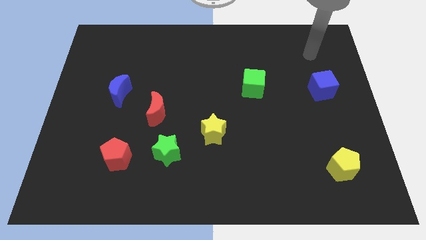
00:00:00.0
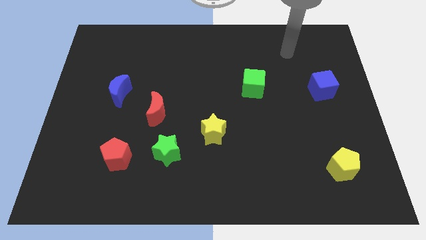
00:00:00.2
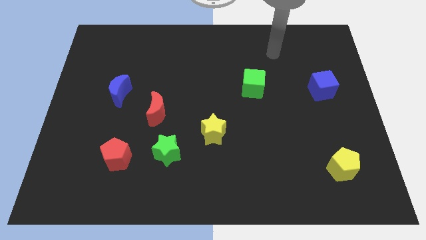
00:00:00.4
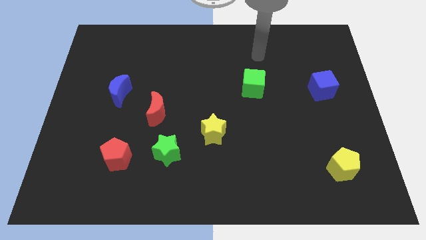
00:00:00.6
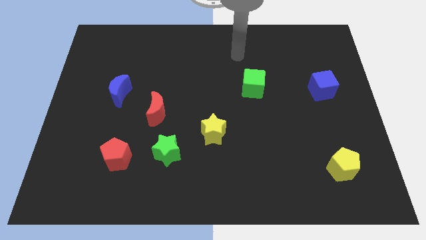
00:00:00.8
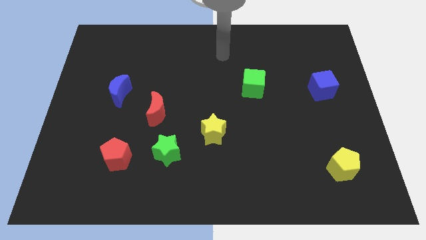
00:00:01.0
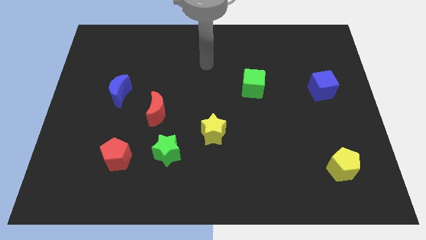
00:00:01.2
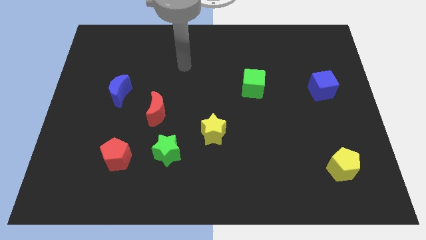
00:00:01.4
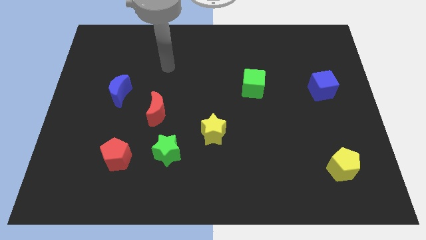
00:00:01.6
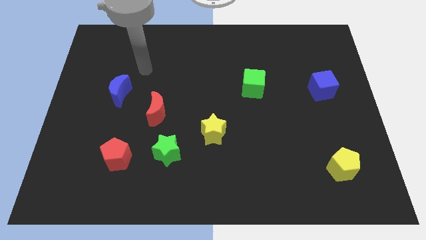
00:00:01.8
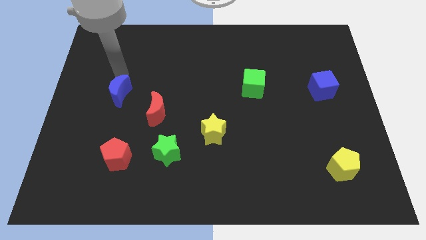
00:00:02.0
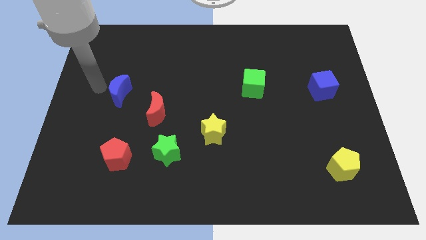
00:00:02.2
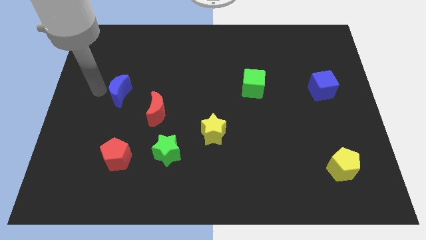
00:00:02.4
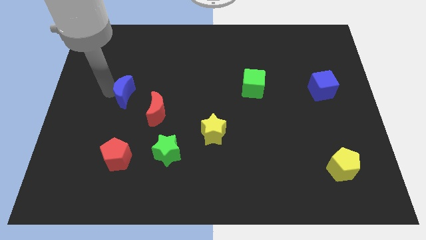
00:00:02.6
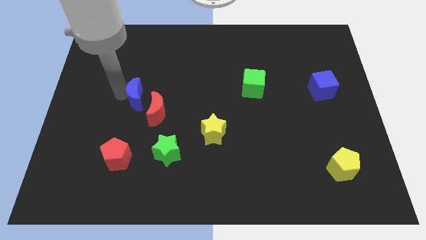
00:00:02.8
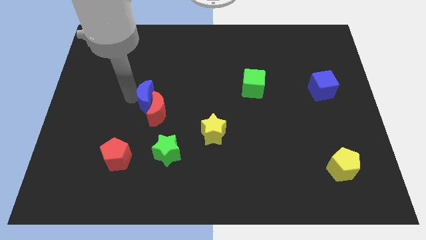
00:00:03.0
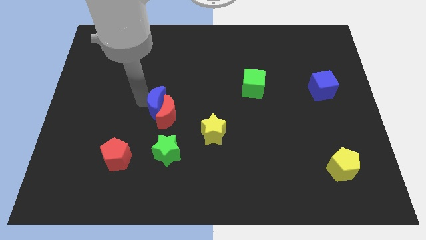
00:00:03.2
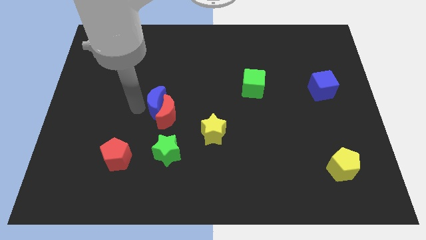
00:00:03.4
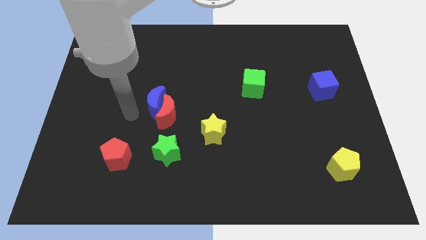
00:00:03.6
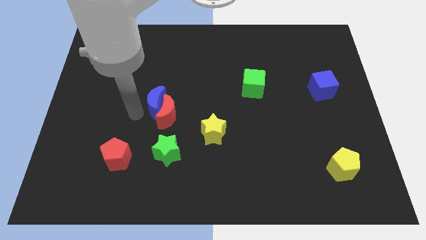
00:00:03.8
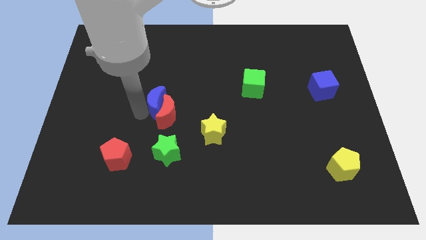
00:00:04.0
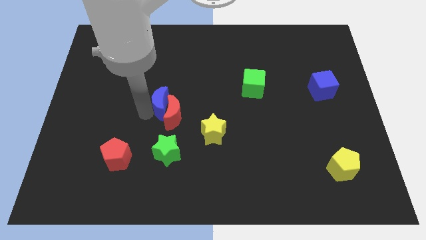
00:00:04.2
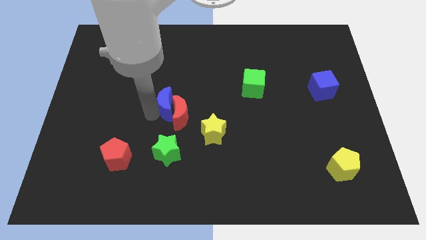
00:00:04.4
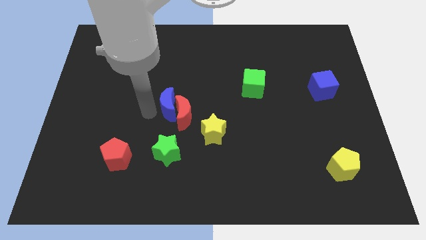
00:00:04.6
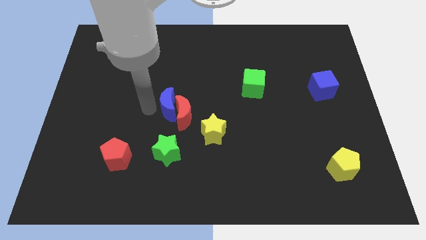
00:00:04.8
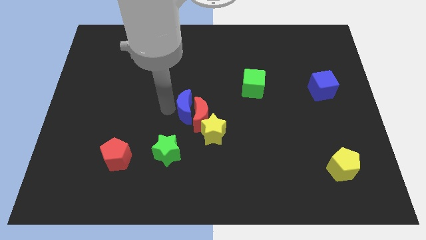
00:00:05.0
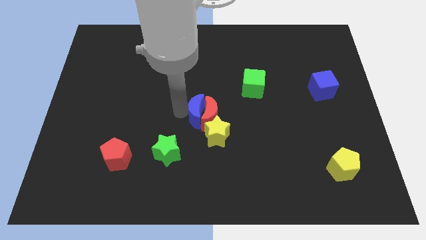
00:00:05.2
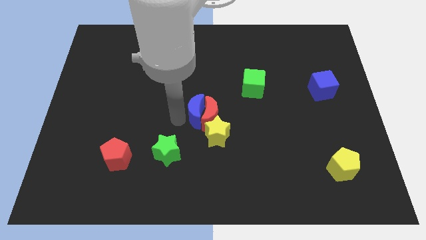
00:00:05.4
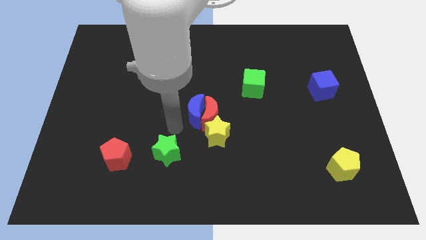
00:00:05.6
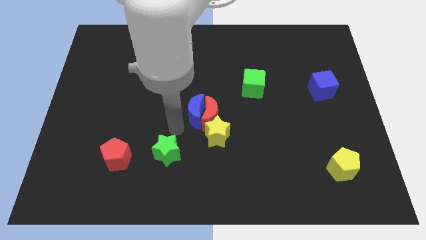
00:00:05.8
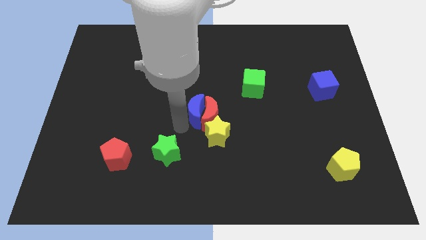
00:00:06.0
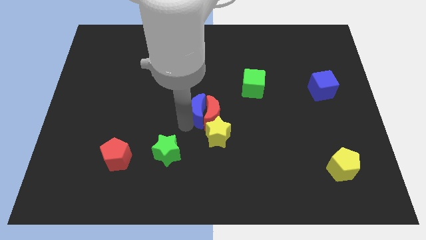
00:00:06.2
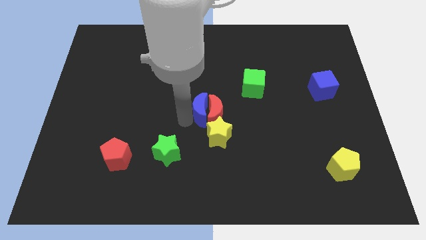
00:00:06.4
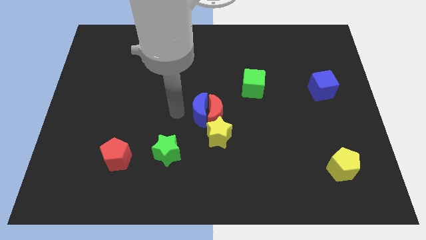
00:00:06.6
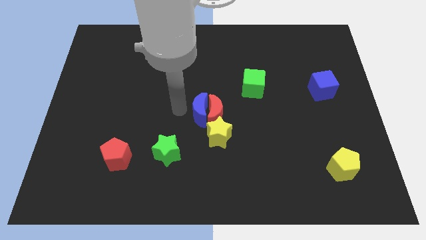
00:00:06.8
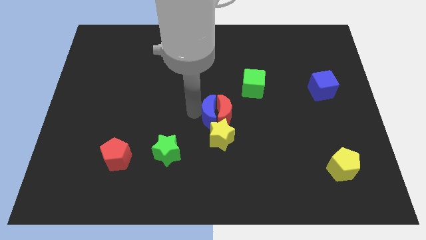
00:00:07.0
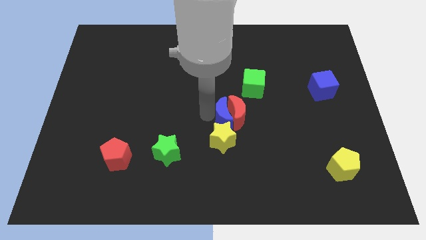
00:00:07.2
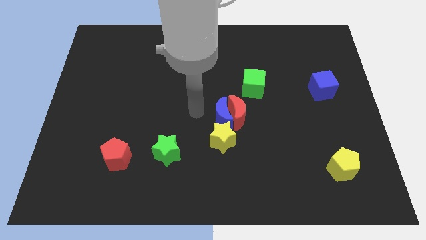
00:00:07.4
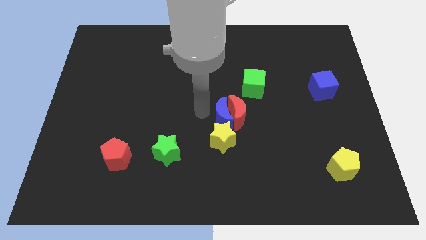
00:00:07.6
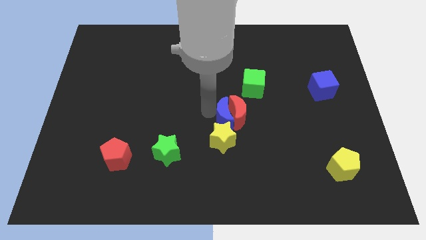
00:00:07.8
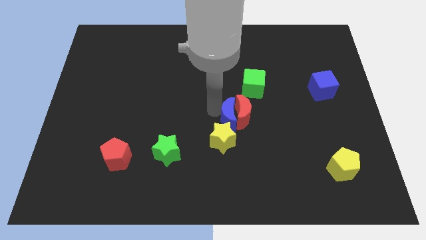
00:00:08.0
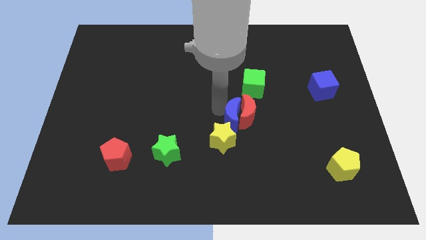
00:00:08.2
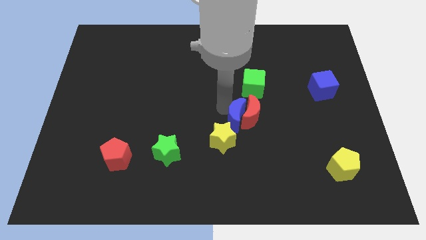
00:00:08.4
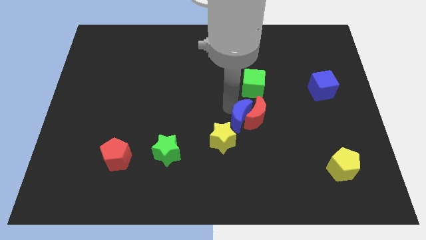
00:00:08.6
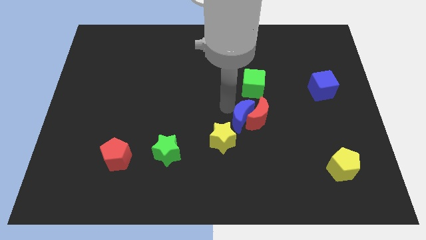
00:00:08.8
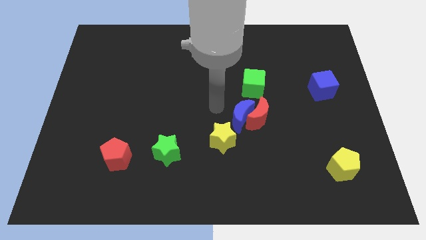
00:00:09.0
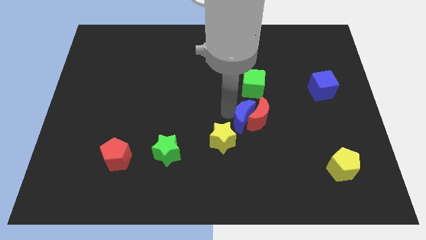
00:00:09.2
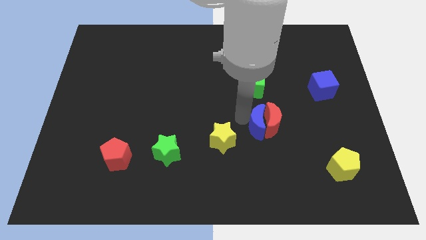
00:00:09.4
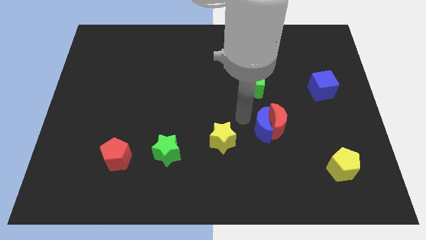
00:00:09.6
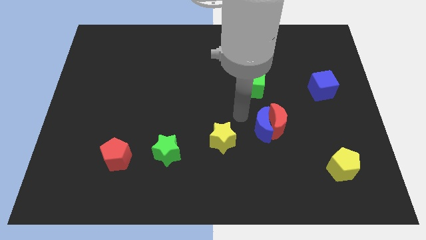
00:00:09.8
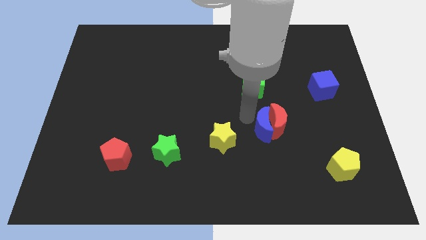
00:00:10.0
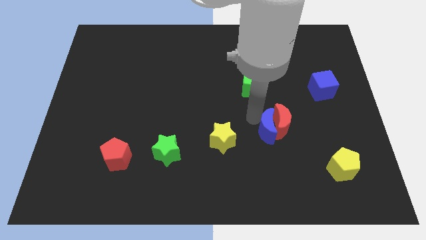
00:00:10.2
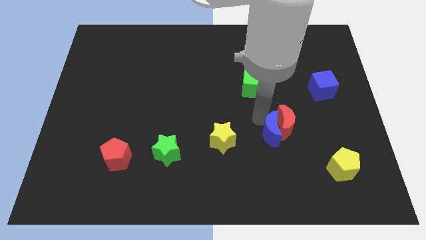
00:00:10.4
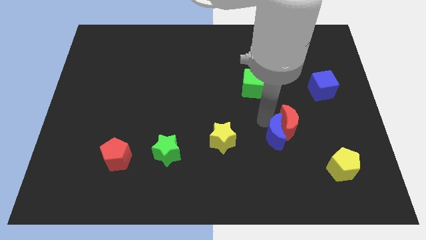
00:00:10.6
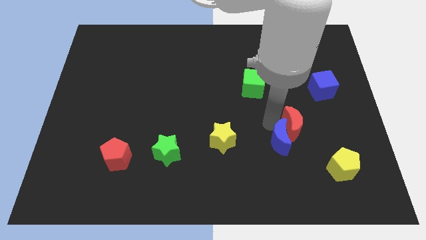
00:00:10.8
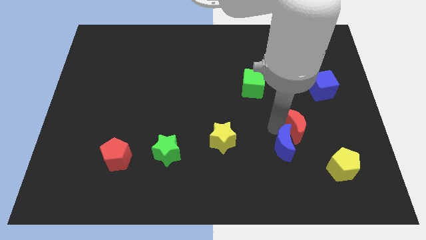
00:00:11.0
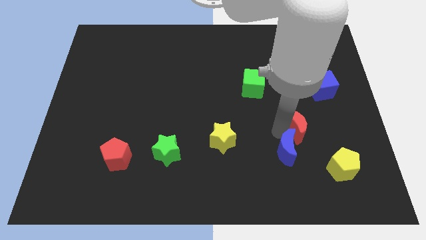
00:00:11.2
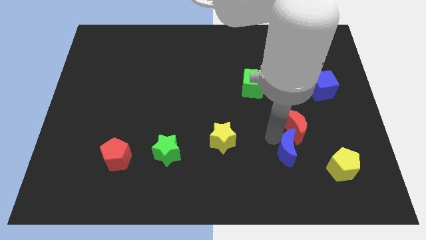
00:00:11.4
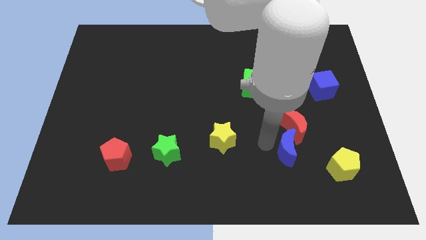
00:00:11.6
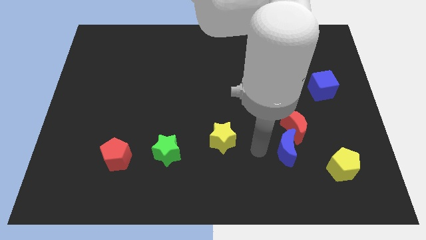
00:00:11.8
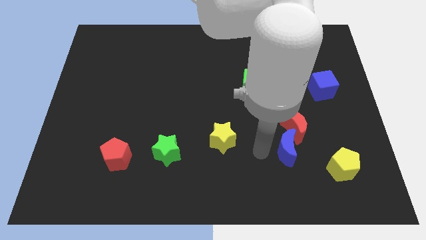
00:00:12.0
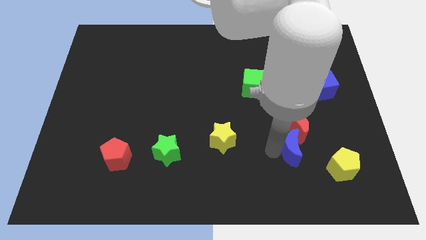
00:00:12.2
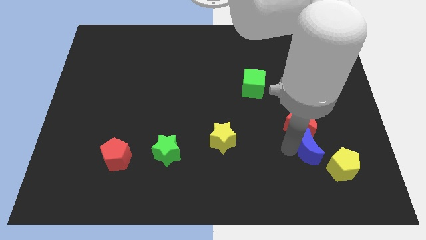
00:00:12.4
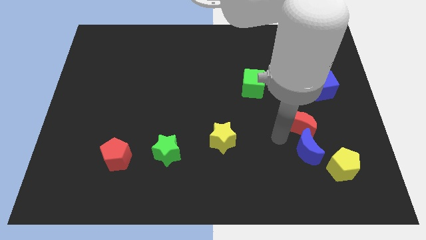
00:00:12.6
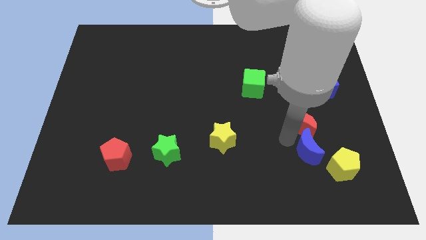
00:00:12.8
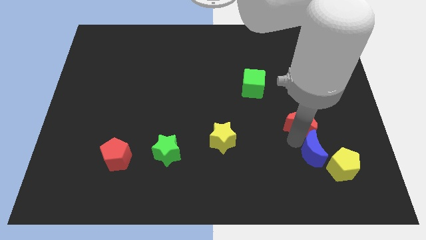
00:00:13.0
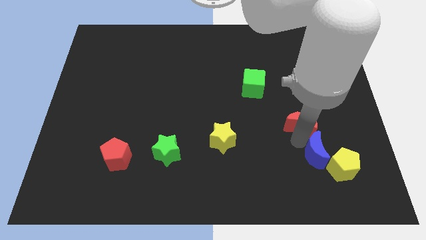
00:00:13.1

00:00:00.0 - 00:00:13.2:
put the blue moon to the yellow pentagon

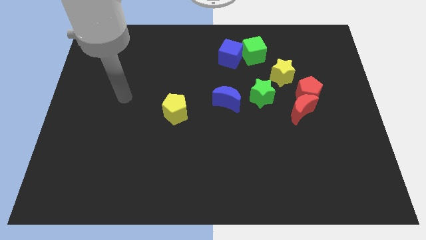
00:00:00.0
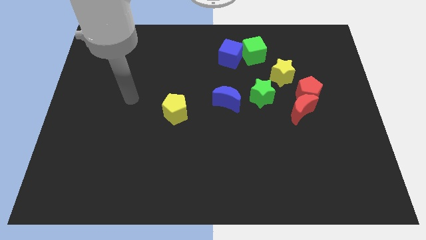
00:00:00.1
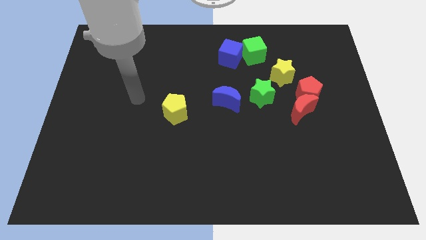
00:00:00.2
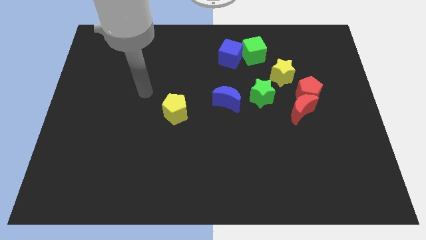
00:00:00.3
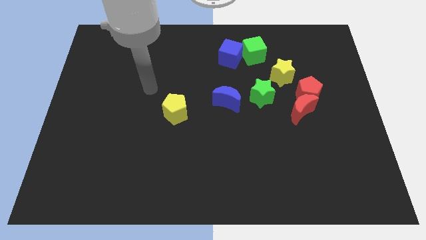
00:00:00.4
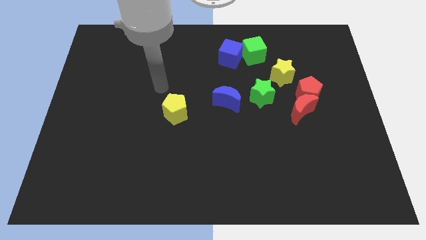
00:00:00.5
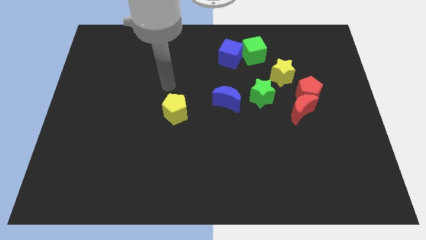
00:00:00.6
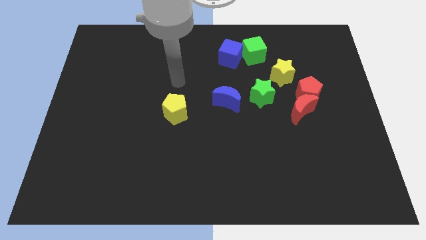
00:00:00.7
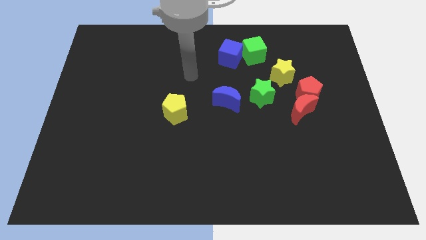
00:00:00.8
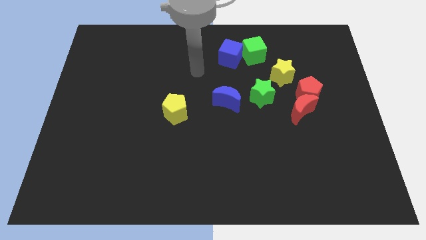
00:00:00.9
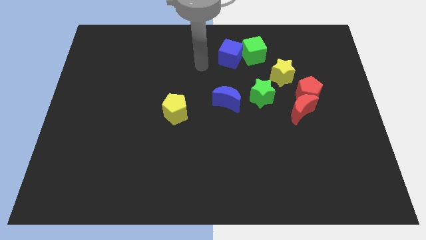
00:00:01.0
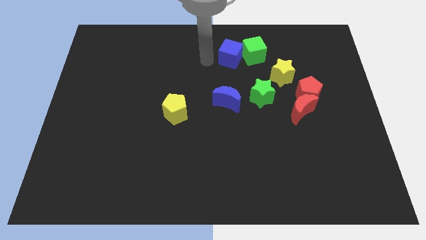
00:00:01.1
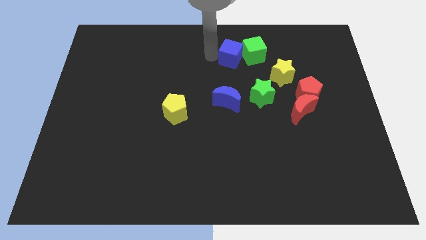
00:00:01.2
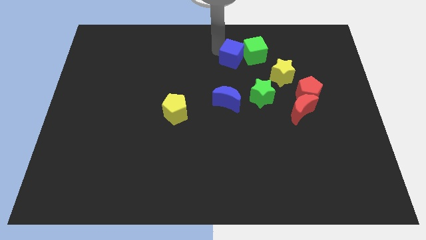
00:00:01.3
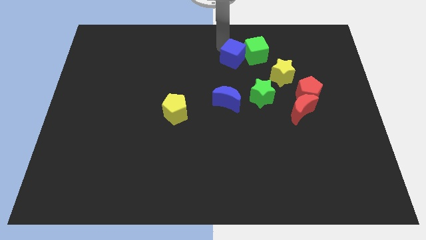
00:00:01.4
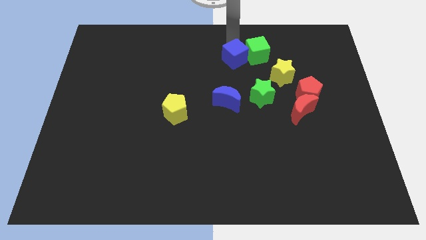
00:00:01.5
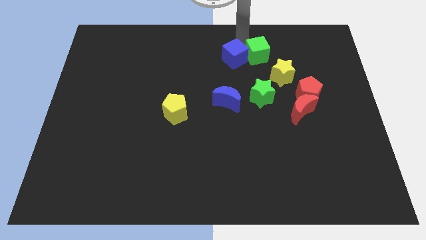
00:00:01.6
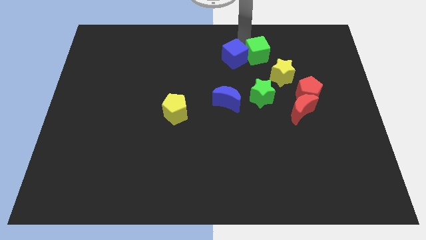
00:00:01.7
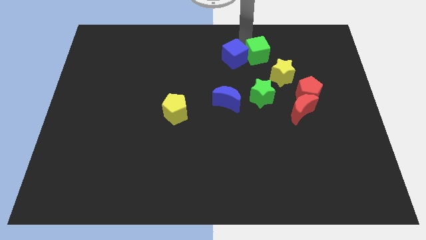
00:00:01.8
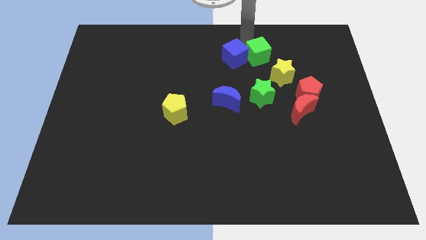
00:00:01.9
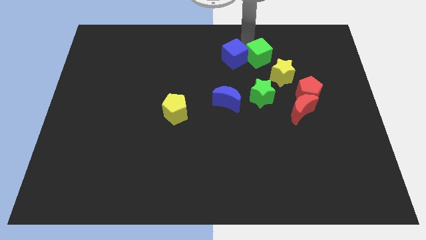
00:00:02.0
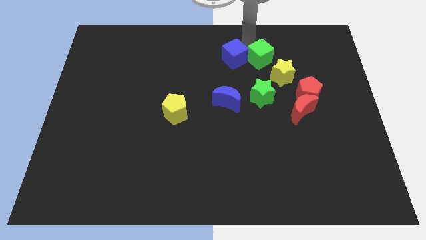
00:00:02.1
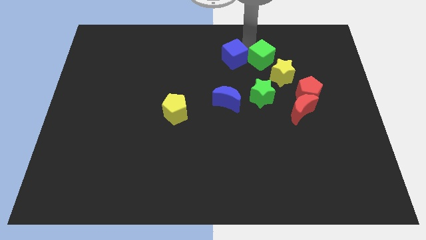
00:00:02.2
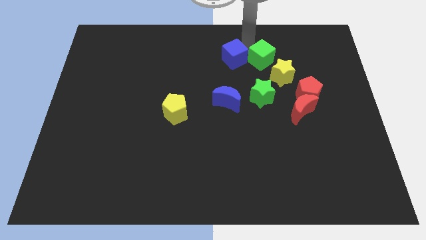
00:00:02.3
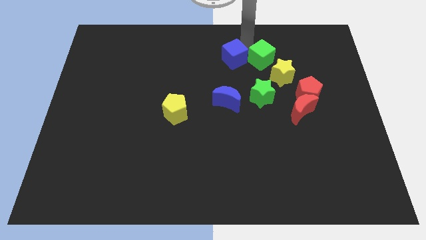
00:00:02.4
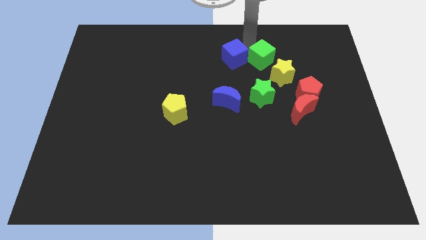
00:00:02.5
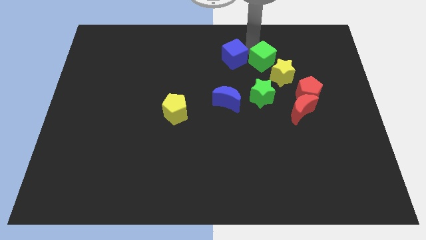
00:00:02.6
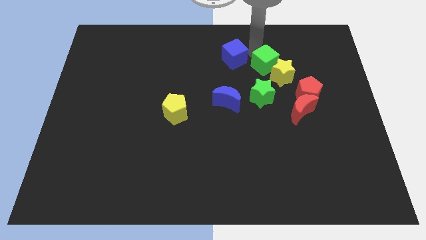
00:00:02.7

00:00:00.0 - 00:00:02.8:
slide the green cube close to the yellow star
